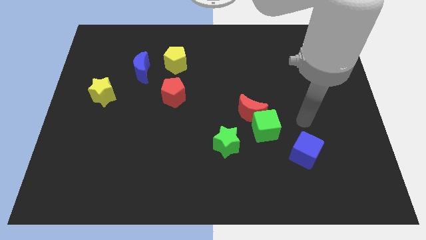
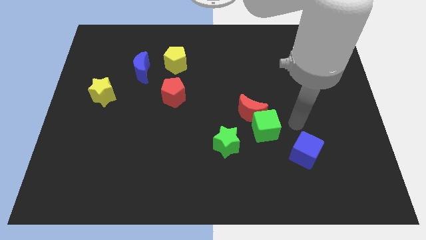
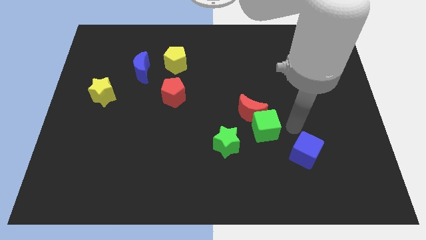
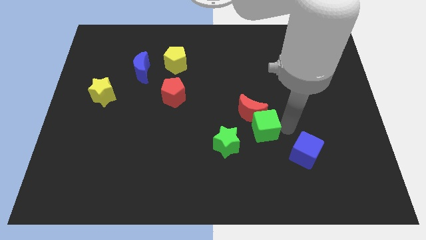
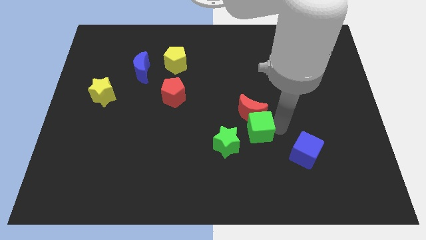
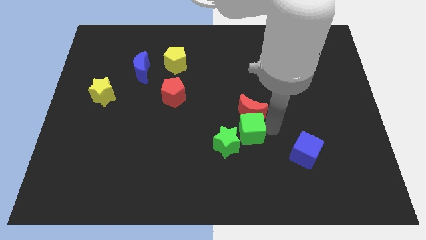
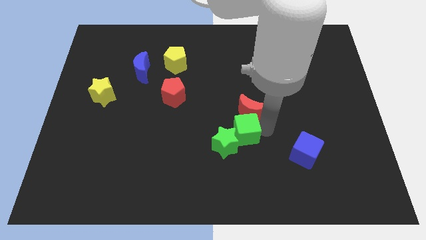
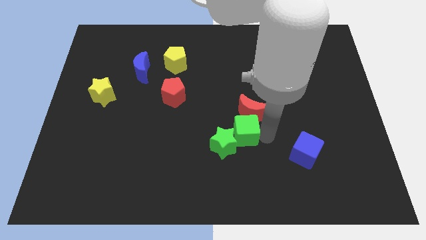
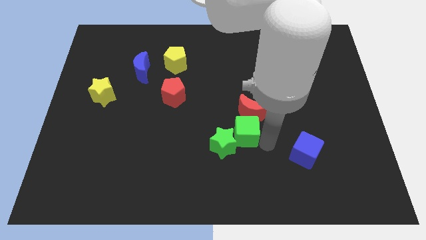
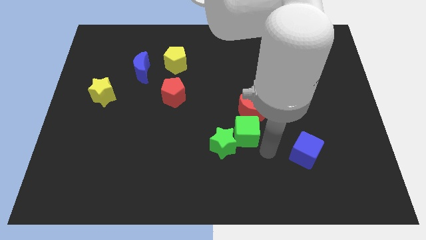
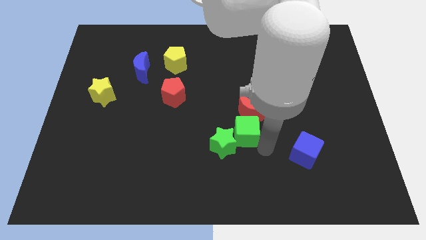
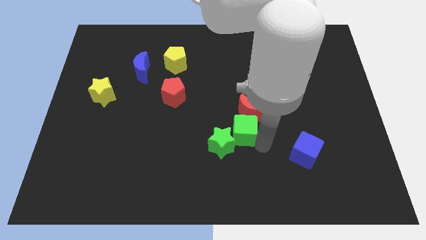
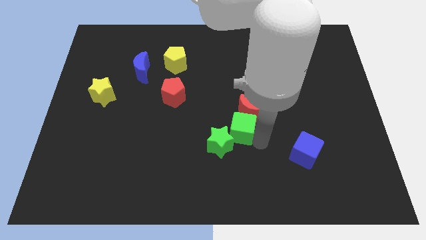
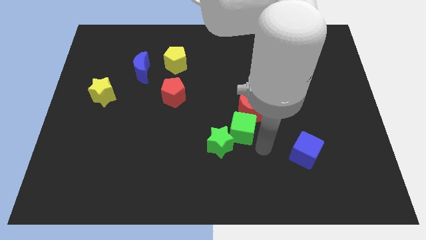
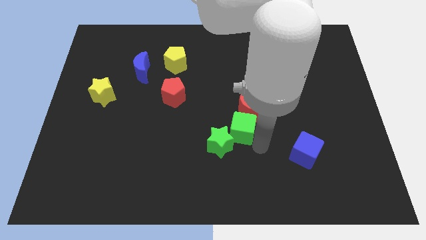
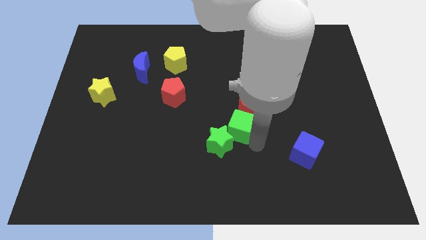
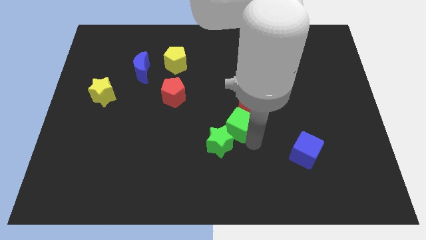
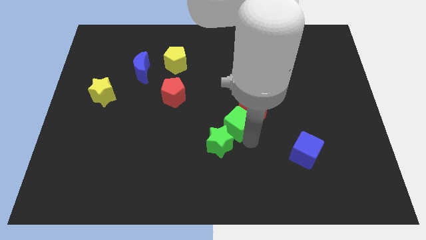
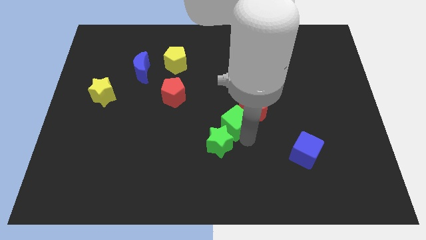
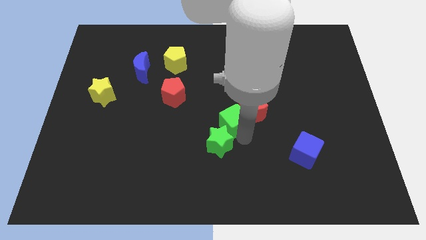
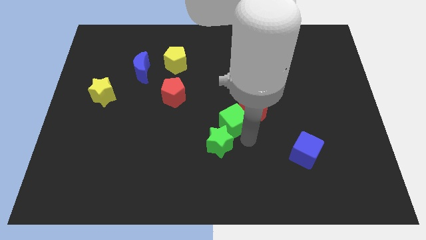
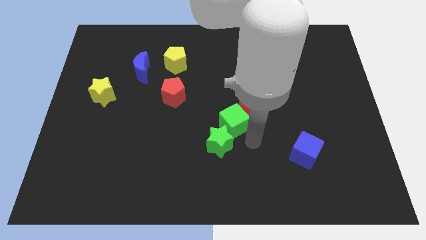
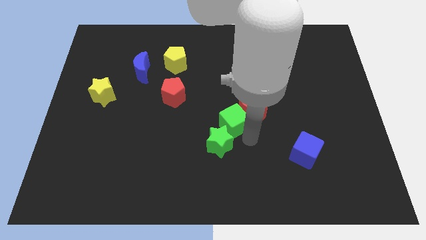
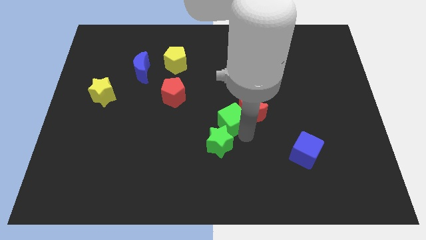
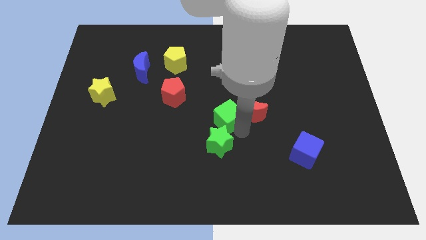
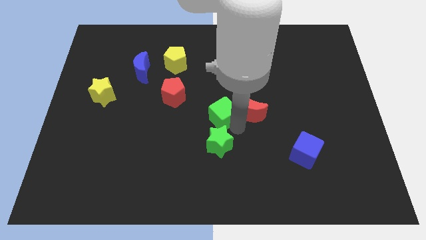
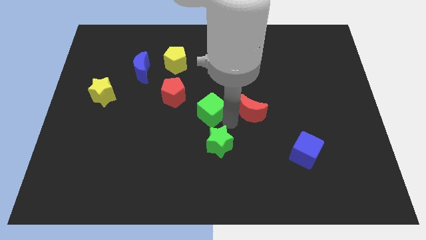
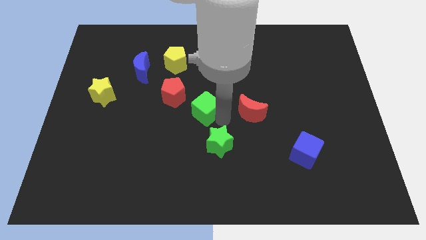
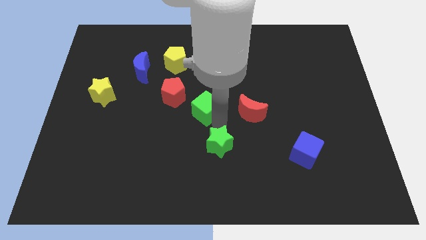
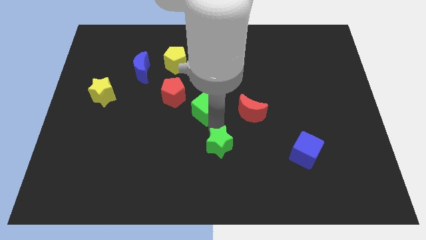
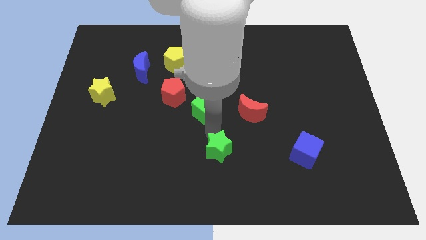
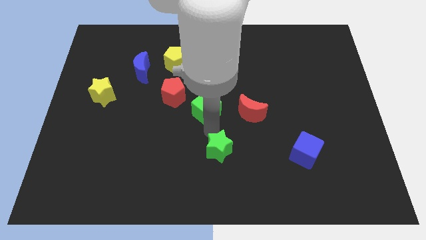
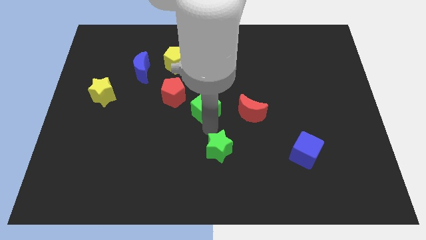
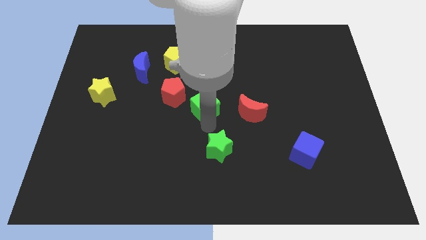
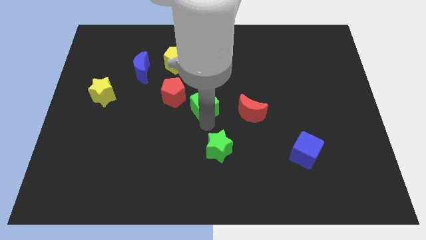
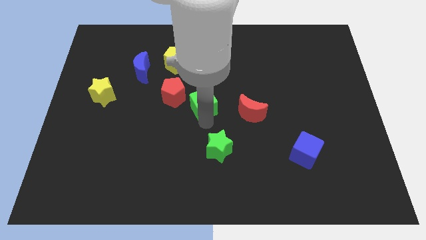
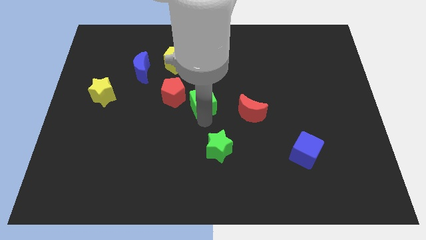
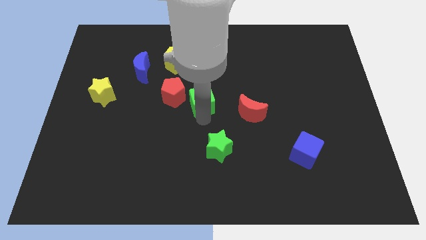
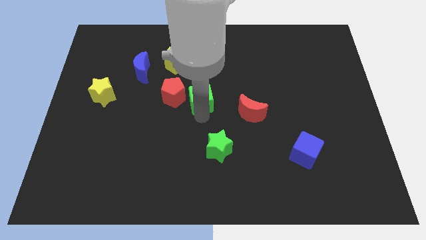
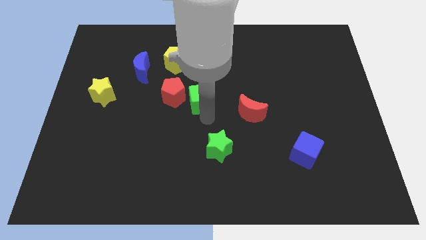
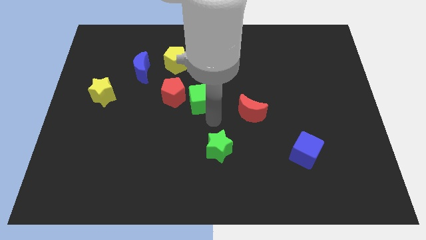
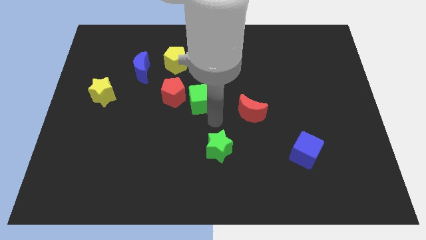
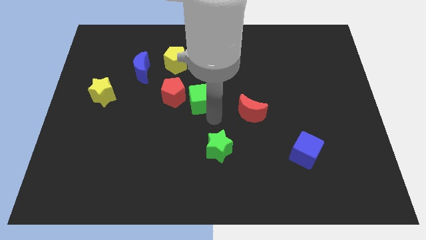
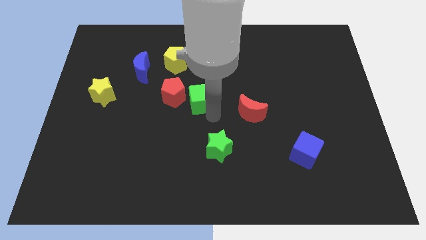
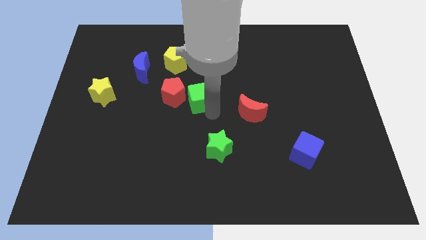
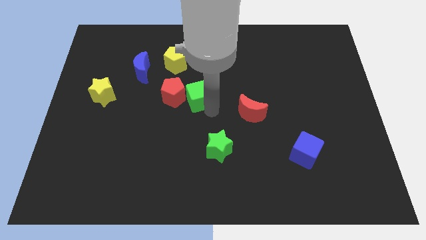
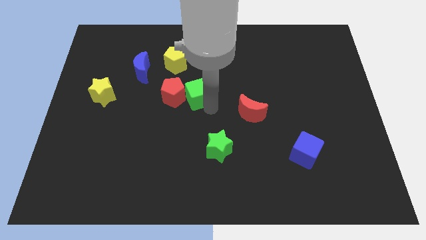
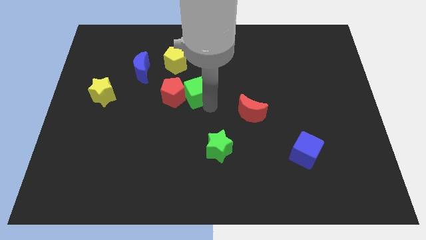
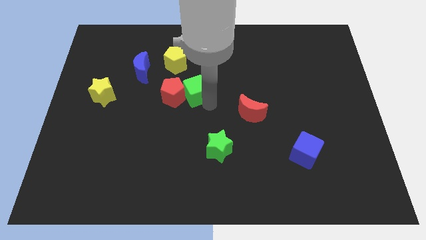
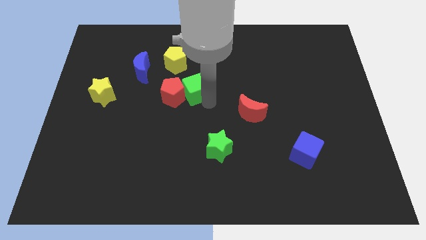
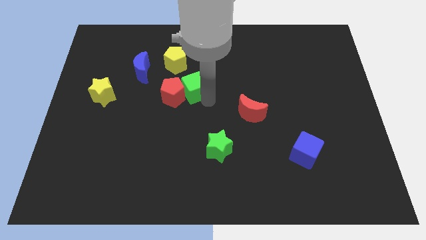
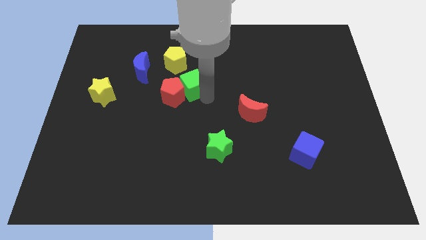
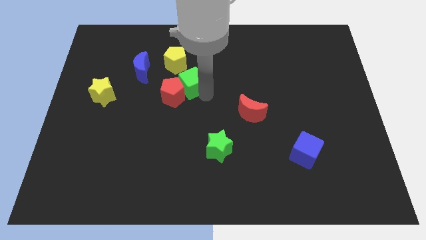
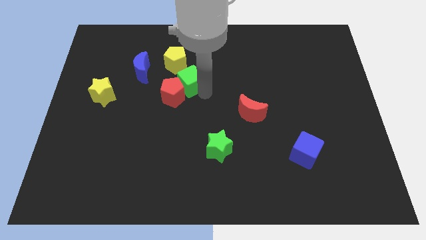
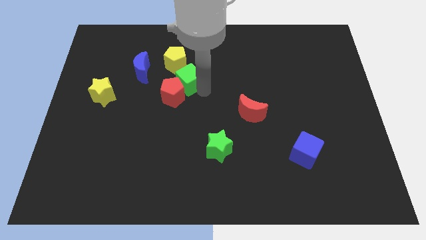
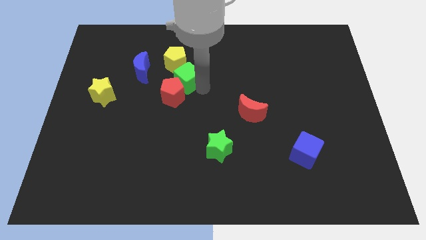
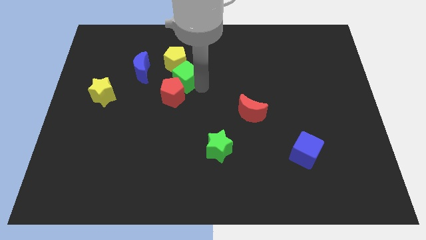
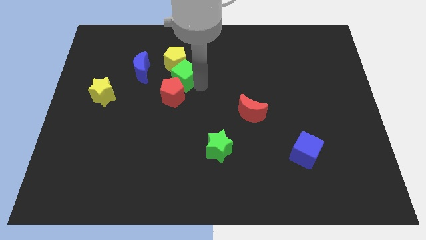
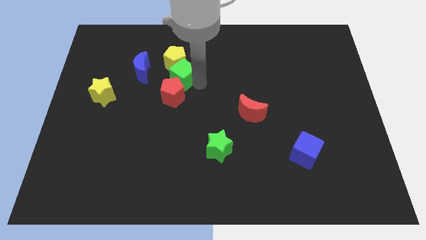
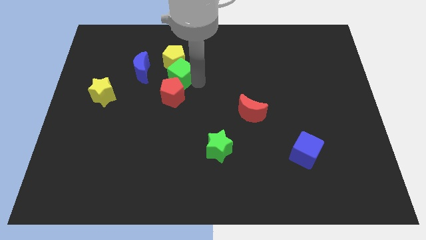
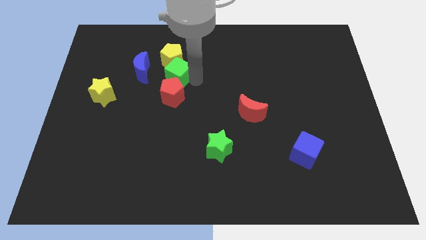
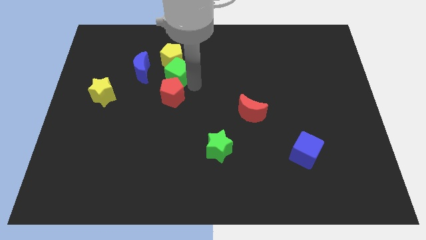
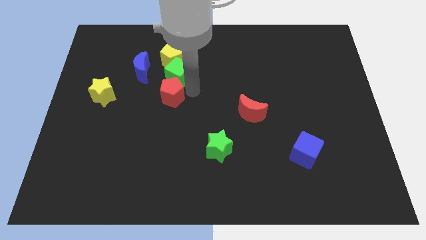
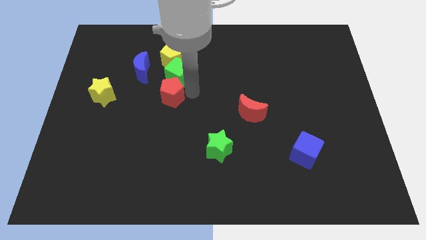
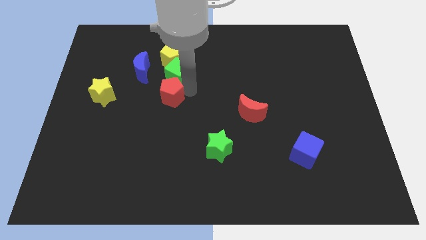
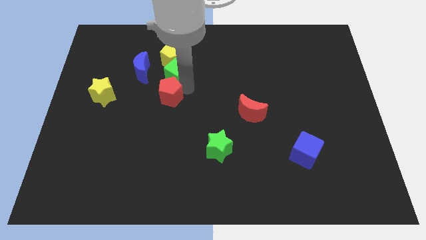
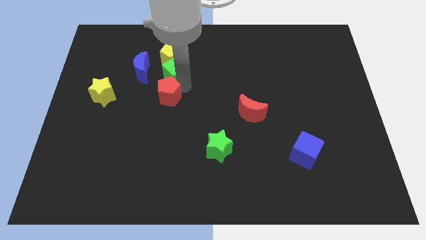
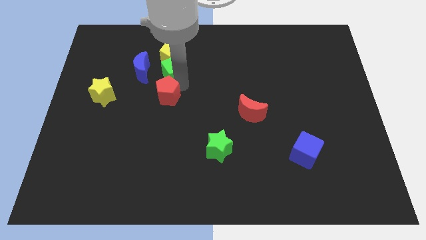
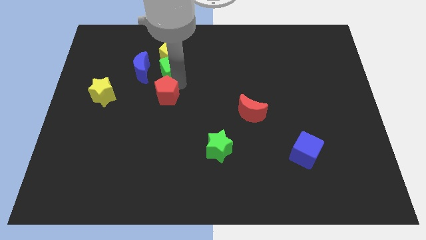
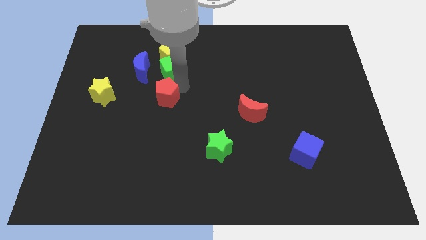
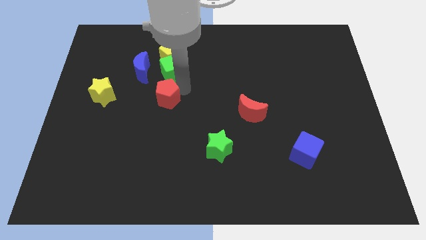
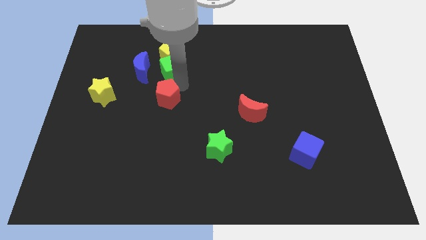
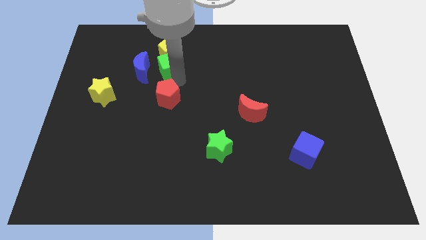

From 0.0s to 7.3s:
put the green cube diagonally up and to the right of the blue moon

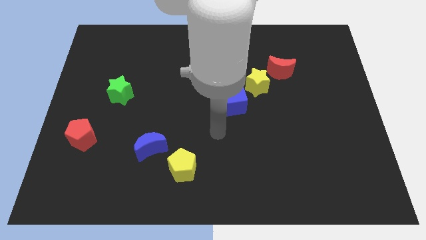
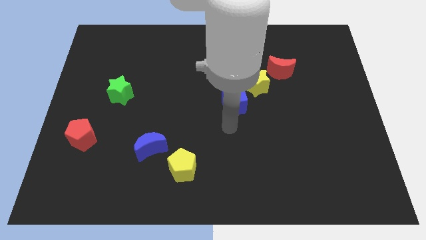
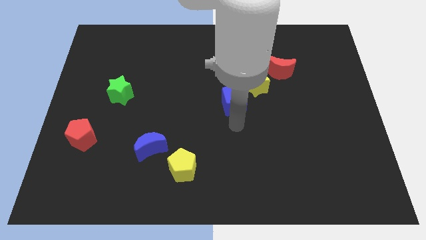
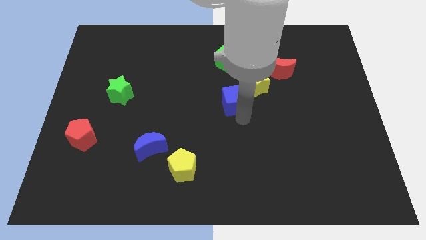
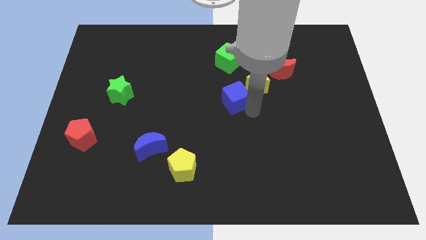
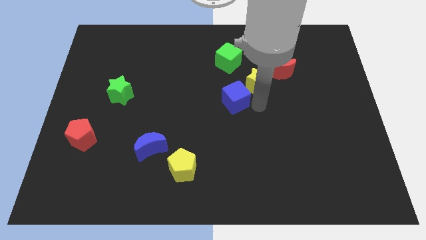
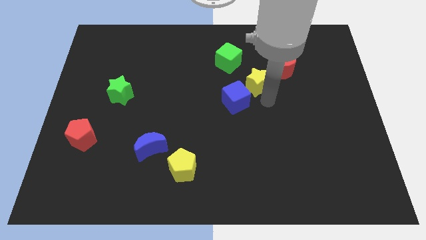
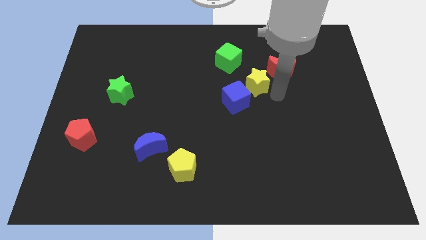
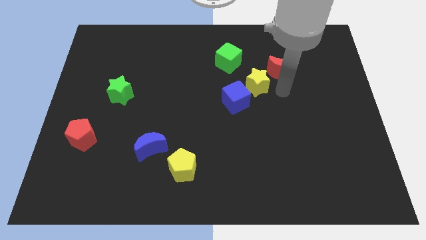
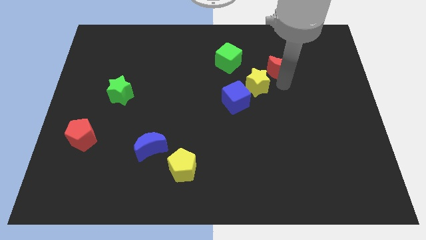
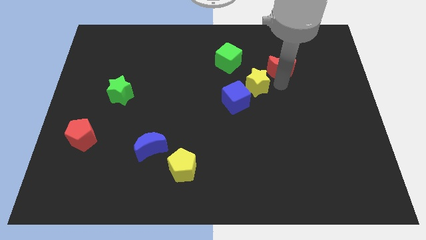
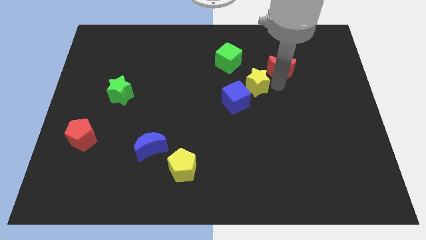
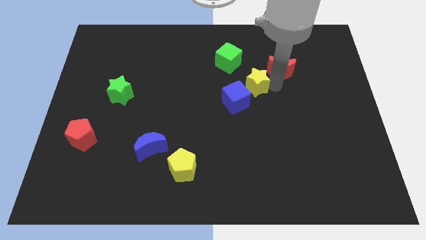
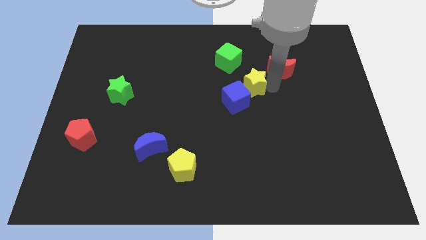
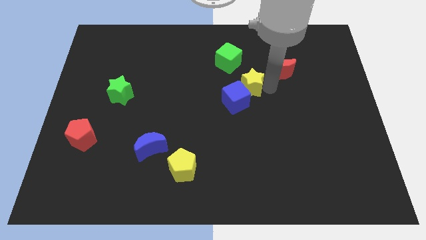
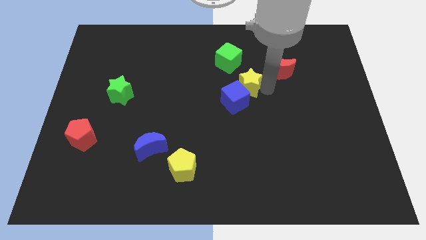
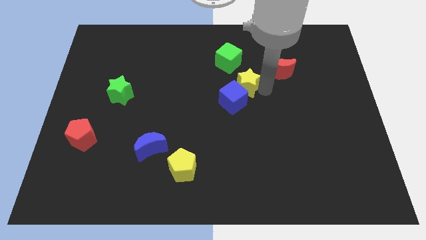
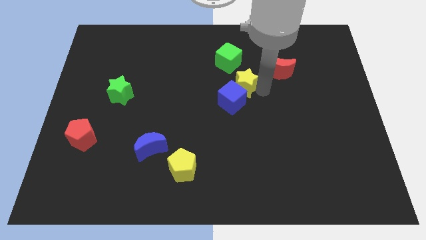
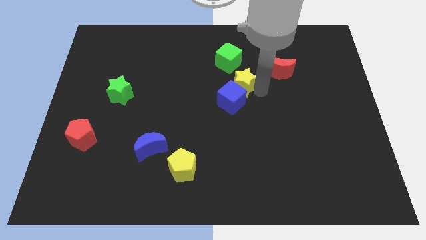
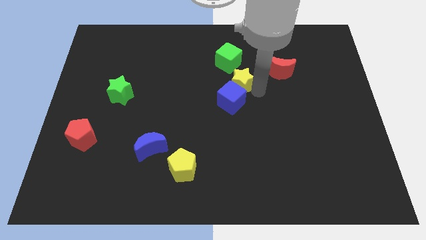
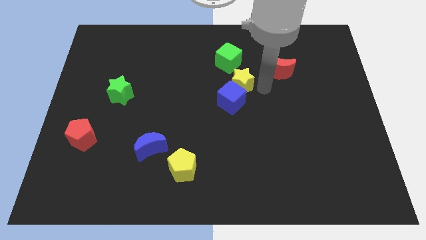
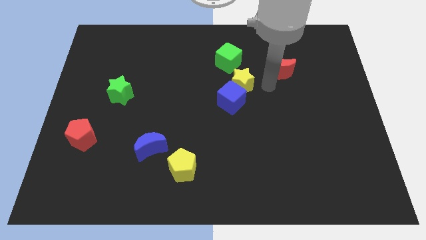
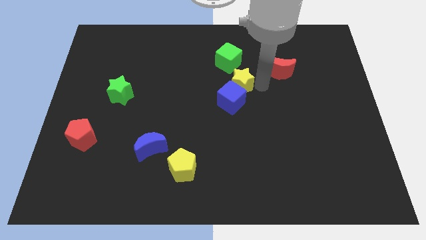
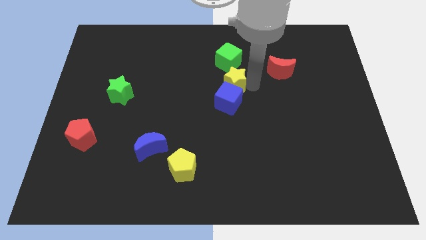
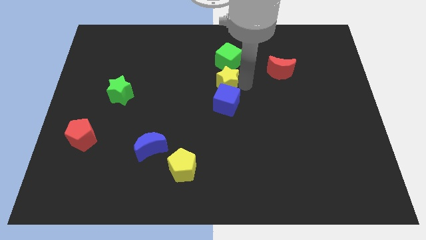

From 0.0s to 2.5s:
slide the yellow star to the top left of the blue cube
